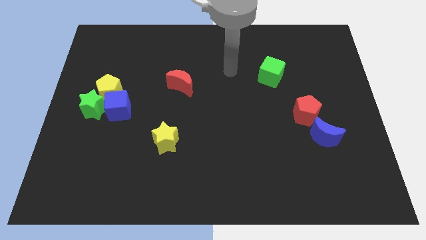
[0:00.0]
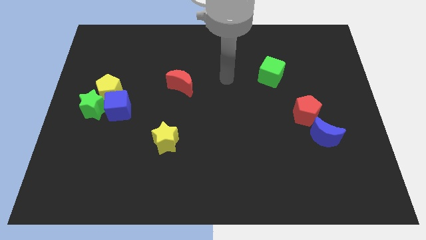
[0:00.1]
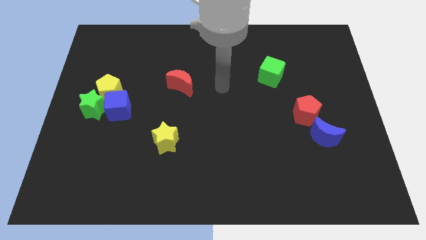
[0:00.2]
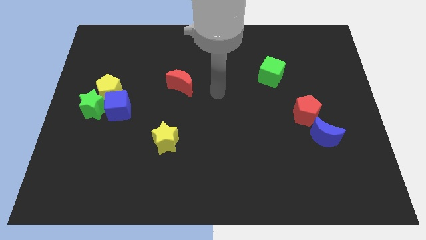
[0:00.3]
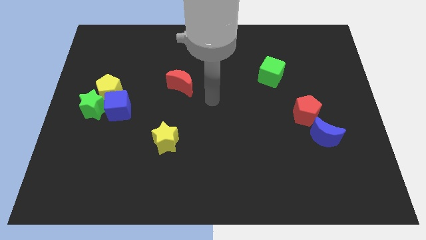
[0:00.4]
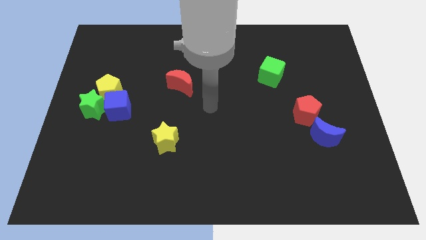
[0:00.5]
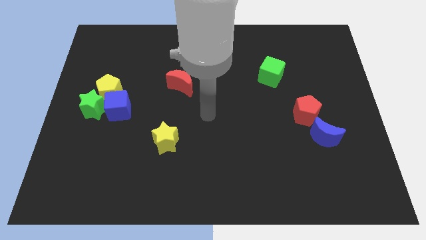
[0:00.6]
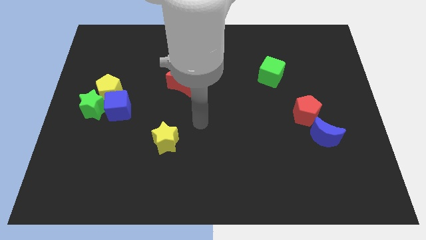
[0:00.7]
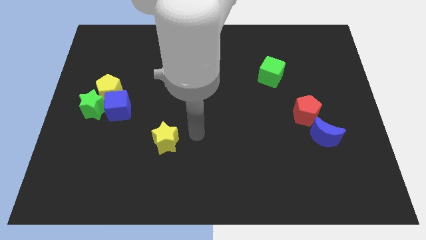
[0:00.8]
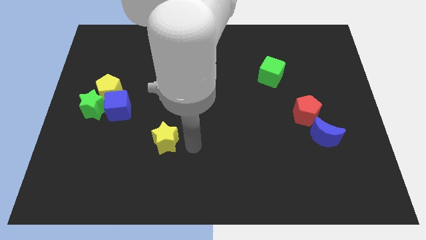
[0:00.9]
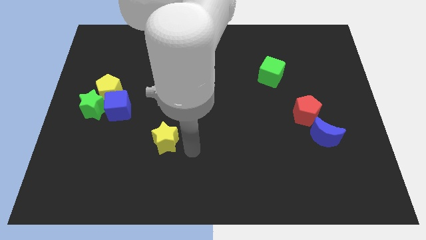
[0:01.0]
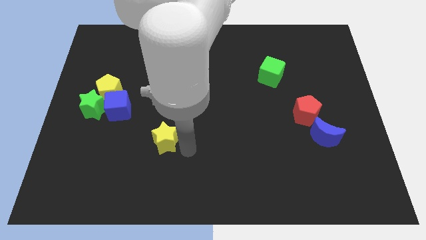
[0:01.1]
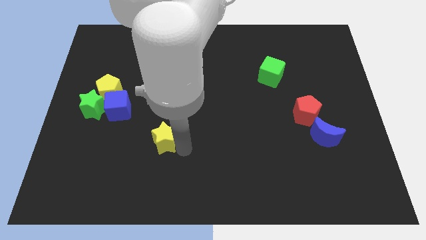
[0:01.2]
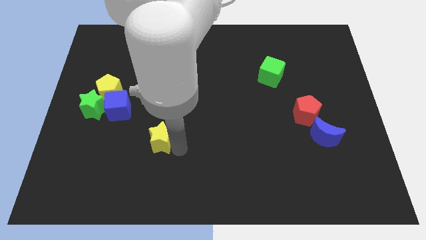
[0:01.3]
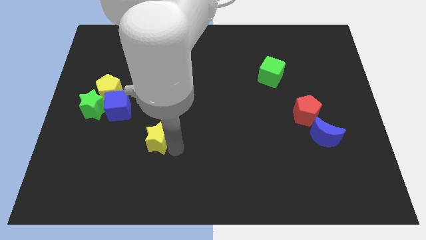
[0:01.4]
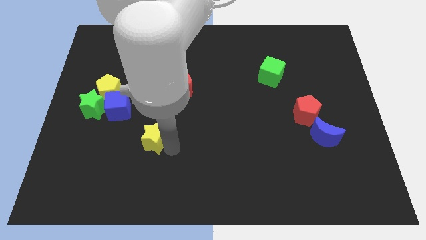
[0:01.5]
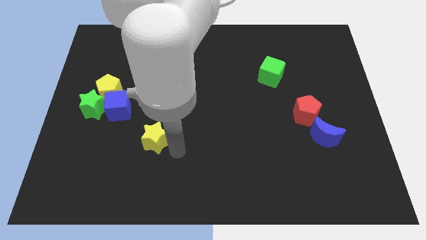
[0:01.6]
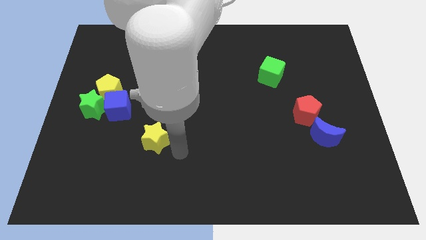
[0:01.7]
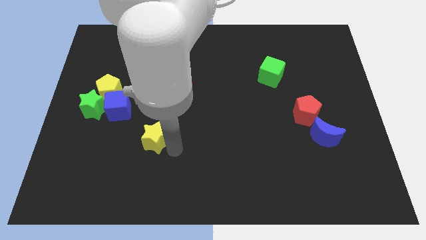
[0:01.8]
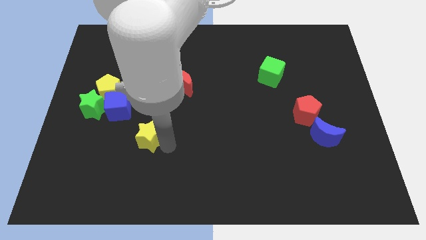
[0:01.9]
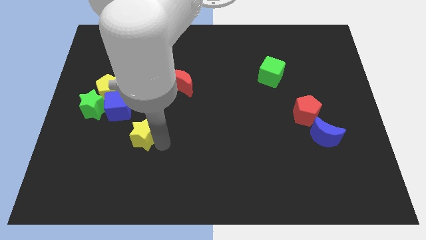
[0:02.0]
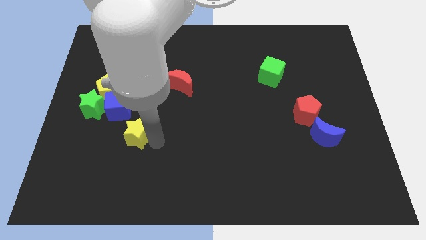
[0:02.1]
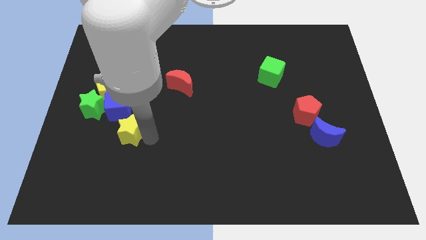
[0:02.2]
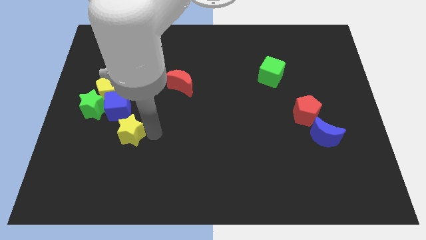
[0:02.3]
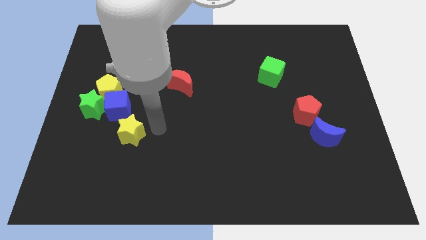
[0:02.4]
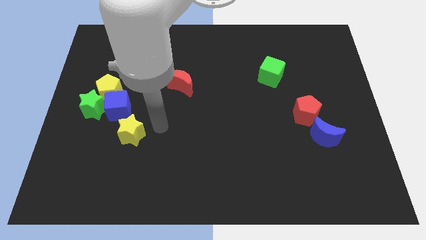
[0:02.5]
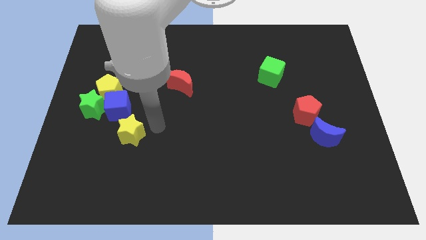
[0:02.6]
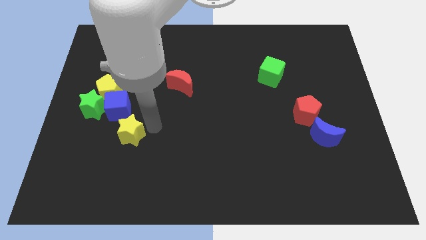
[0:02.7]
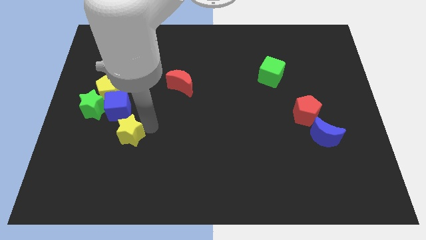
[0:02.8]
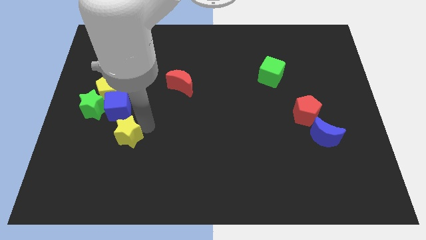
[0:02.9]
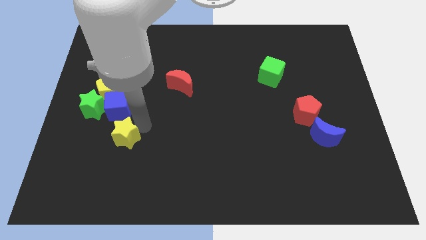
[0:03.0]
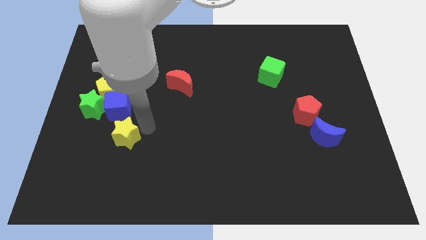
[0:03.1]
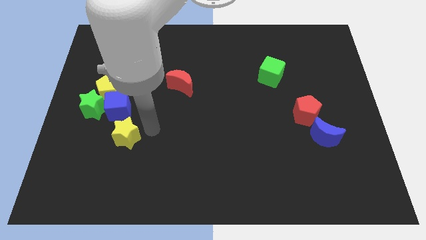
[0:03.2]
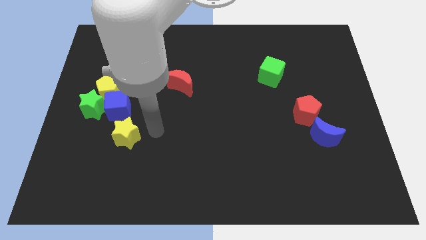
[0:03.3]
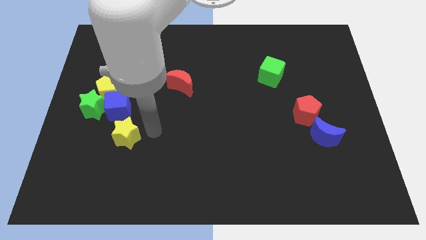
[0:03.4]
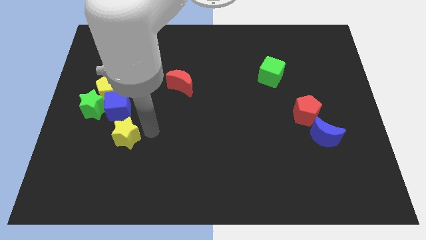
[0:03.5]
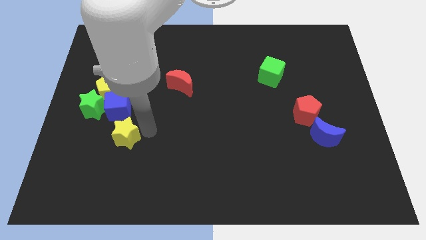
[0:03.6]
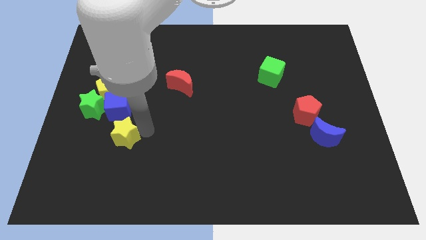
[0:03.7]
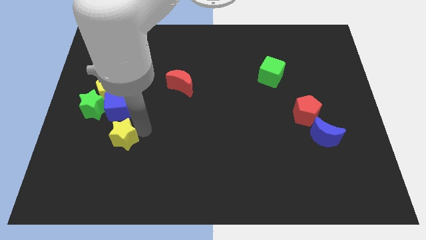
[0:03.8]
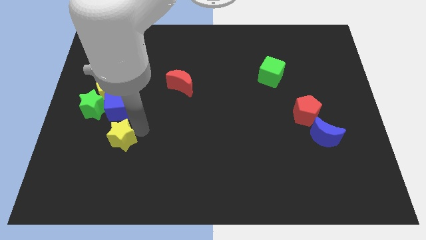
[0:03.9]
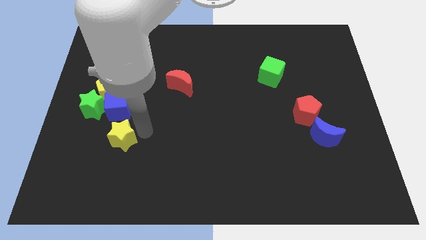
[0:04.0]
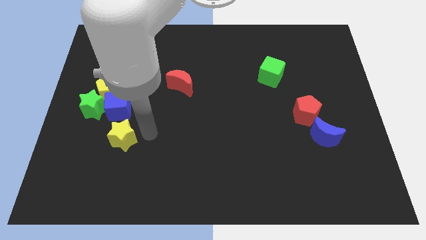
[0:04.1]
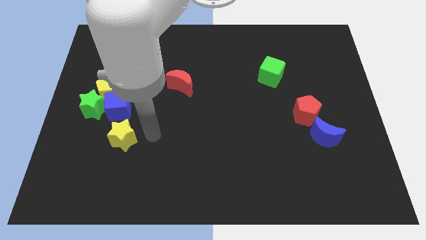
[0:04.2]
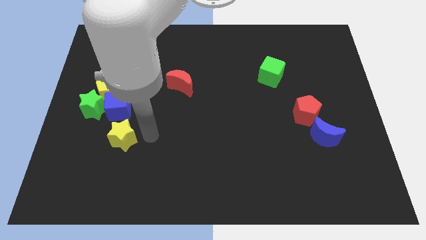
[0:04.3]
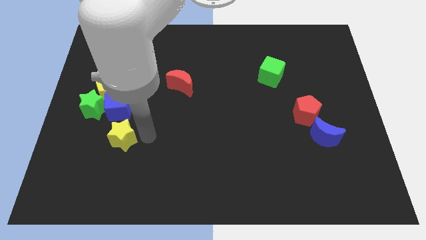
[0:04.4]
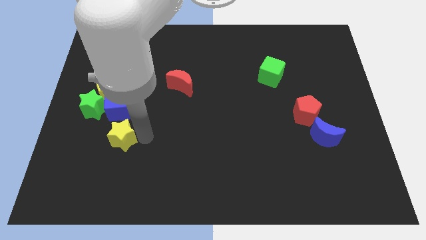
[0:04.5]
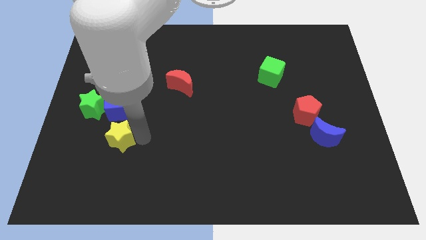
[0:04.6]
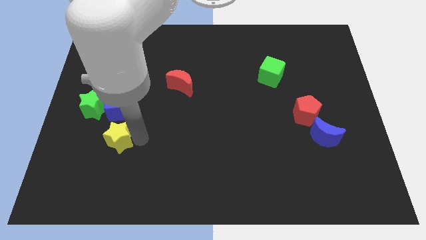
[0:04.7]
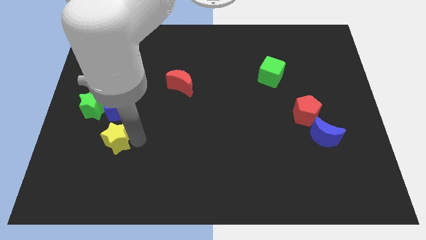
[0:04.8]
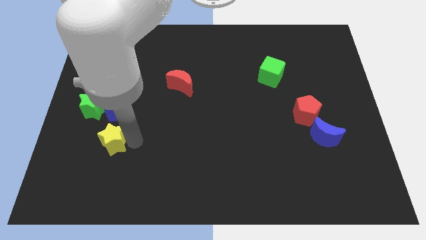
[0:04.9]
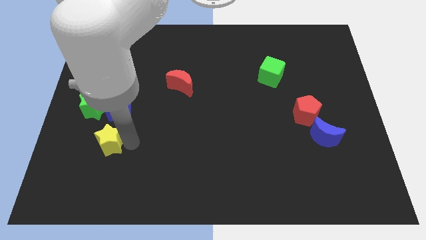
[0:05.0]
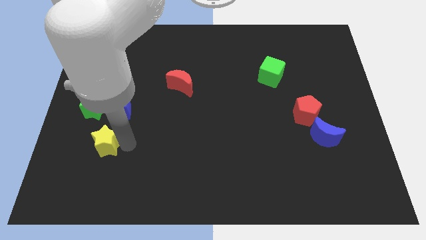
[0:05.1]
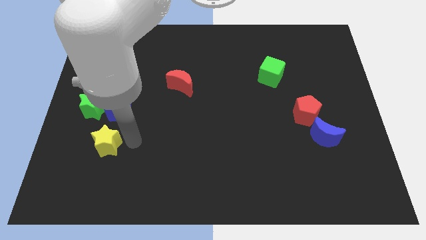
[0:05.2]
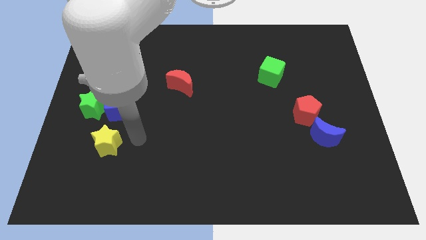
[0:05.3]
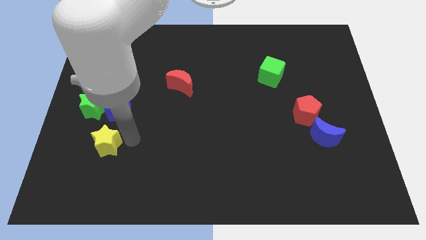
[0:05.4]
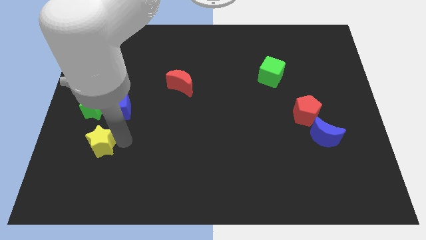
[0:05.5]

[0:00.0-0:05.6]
move the yellow star to the bottom of the green star

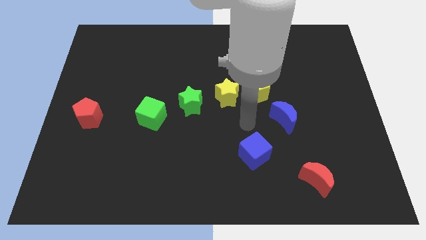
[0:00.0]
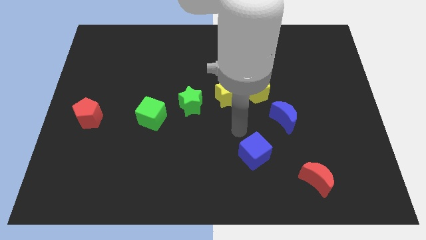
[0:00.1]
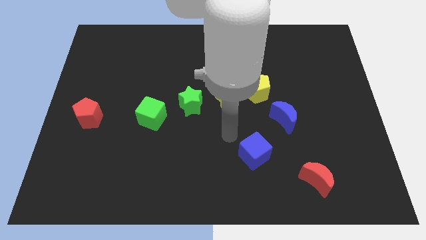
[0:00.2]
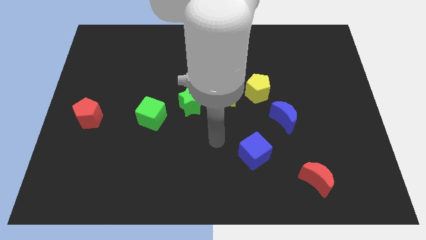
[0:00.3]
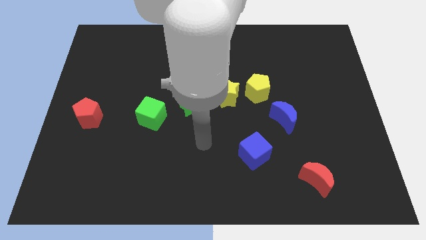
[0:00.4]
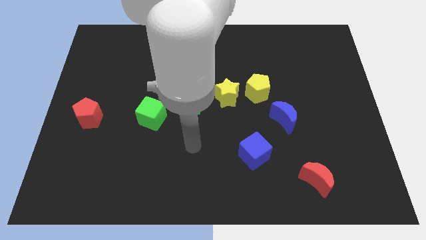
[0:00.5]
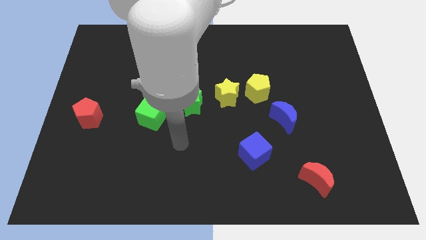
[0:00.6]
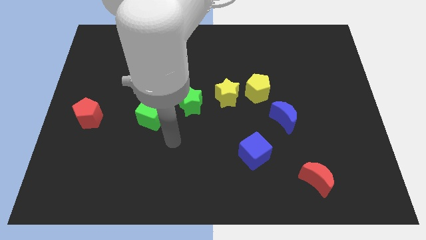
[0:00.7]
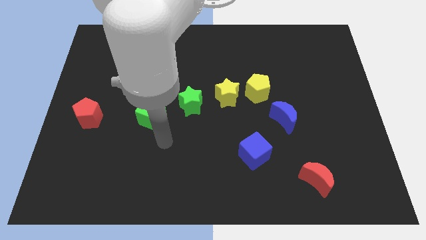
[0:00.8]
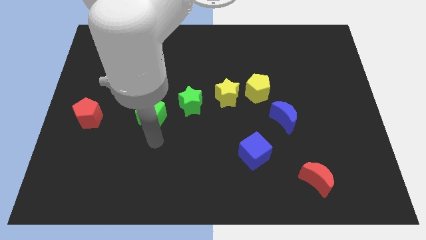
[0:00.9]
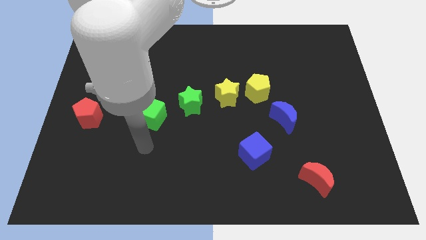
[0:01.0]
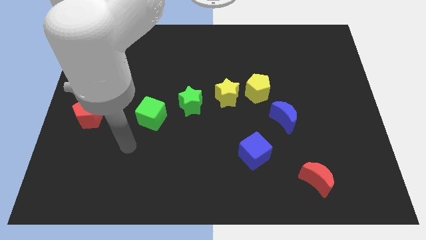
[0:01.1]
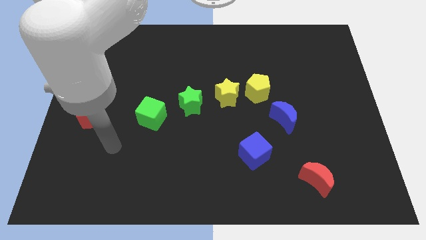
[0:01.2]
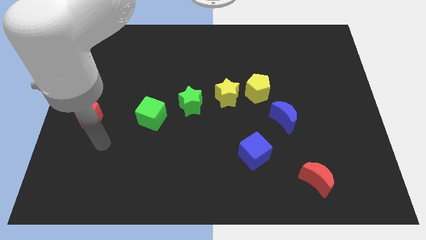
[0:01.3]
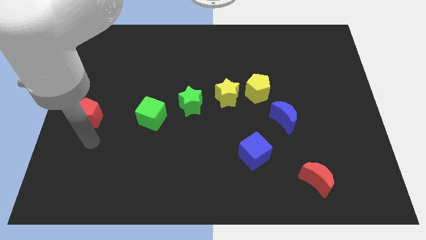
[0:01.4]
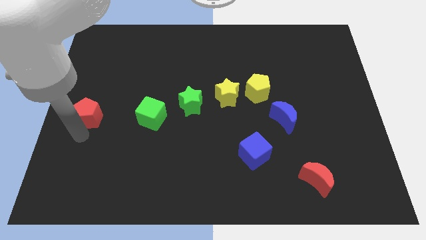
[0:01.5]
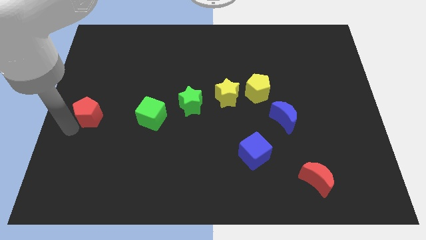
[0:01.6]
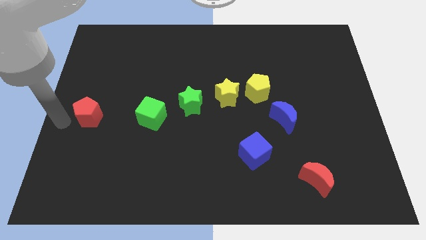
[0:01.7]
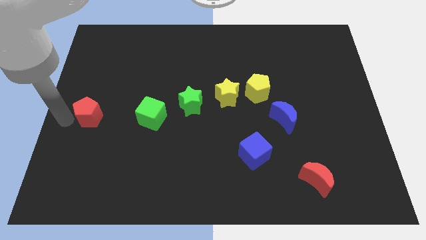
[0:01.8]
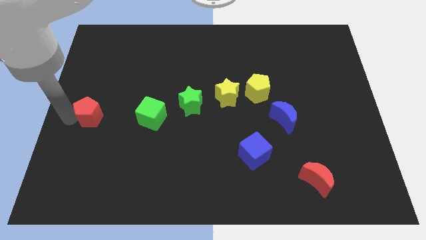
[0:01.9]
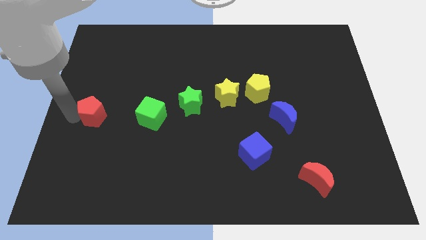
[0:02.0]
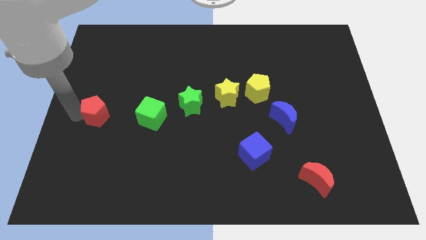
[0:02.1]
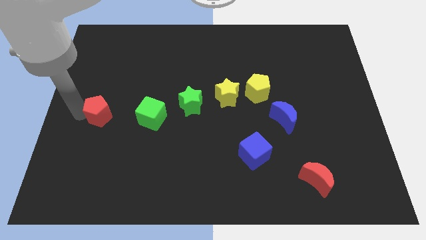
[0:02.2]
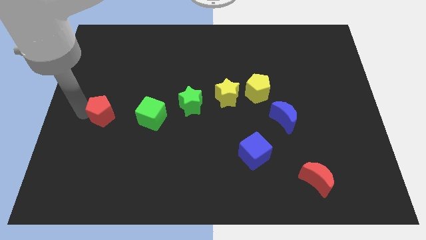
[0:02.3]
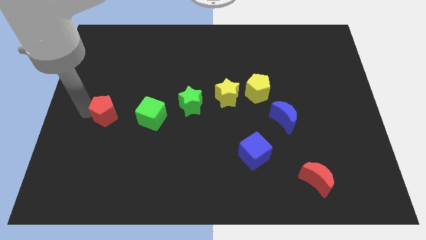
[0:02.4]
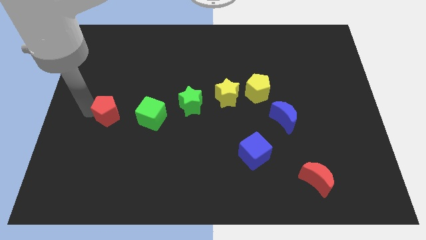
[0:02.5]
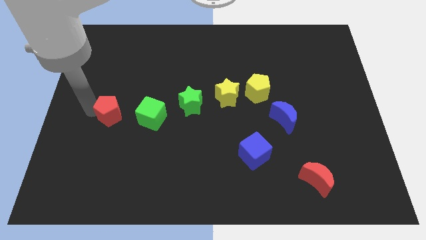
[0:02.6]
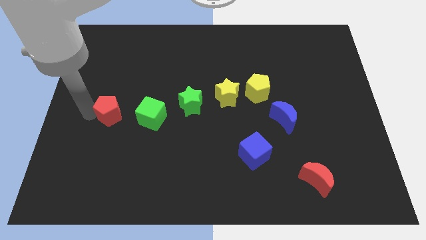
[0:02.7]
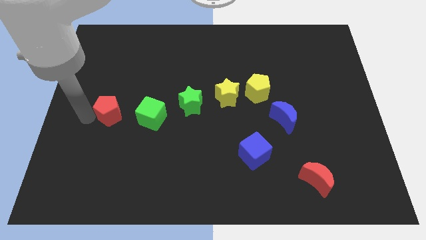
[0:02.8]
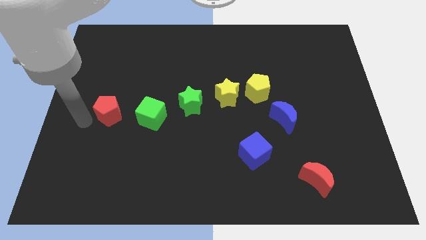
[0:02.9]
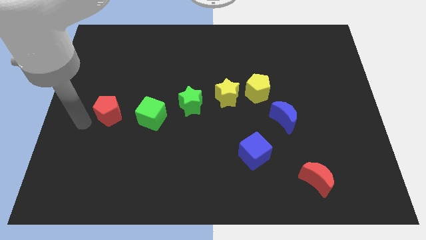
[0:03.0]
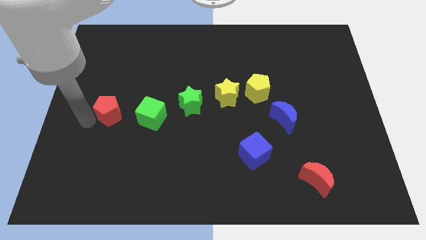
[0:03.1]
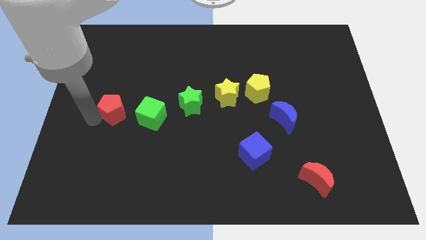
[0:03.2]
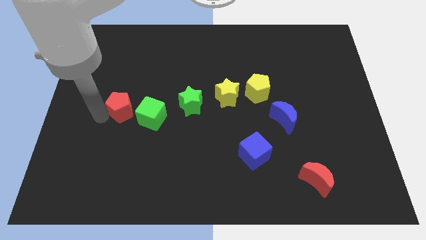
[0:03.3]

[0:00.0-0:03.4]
move the red pentagon left of the green star
